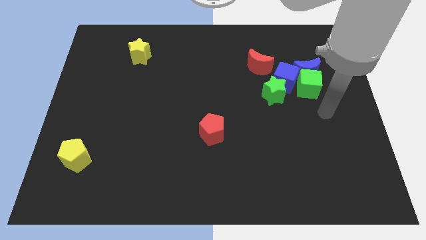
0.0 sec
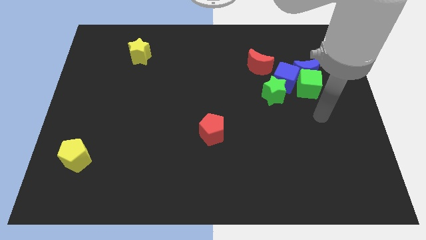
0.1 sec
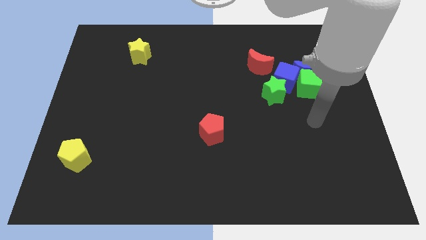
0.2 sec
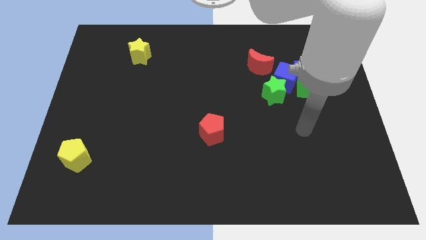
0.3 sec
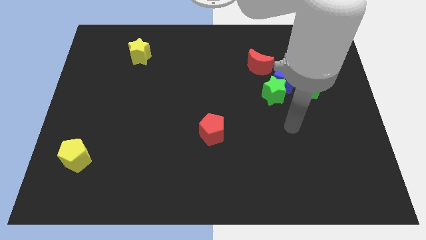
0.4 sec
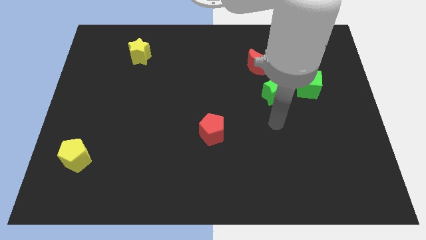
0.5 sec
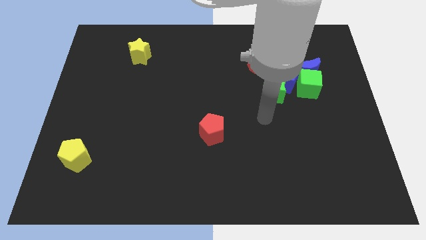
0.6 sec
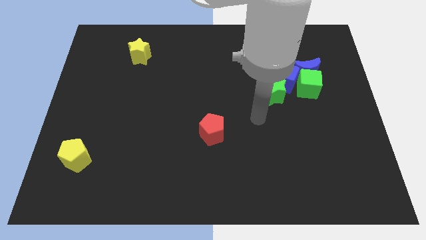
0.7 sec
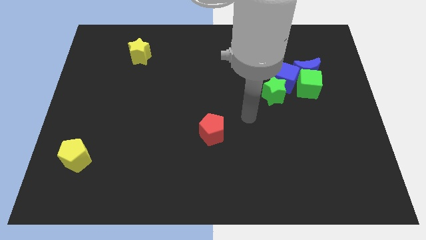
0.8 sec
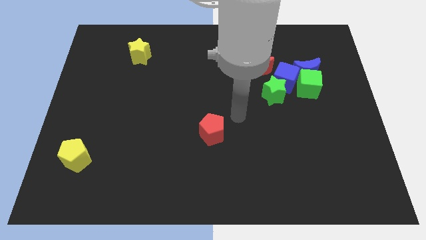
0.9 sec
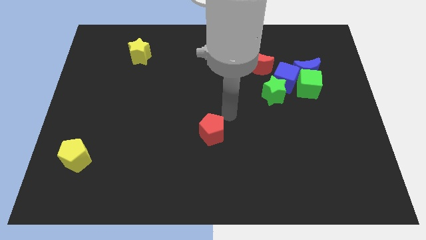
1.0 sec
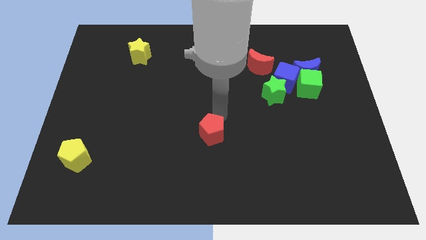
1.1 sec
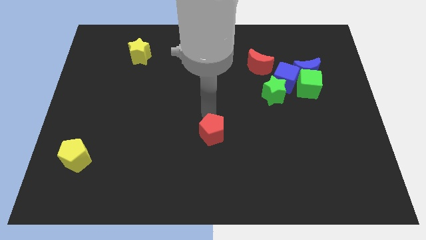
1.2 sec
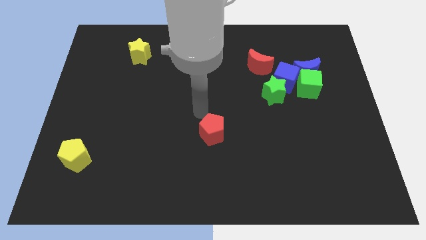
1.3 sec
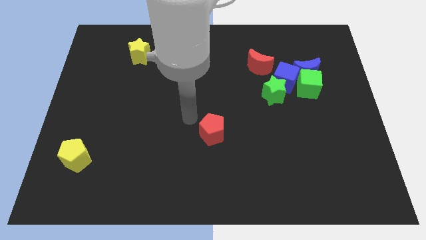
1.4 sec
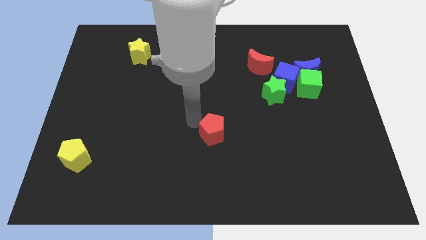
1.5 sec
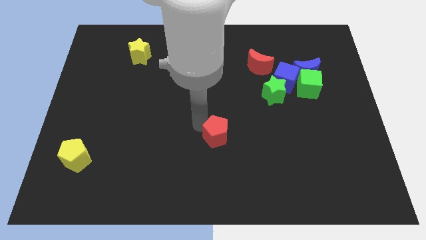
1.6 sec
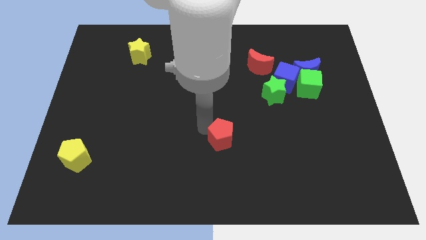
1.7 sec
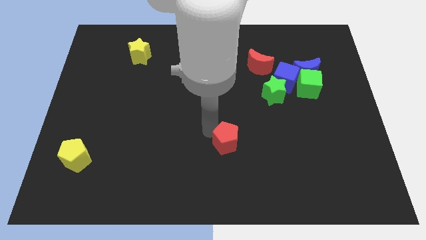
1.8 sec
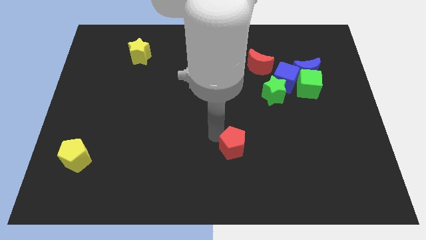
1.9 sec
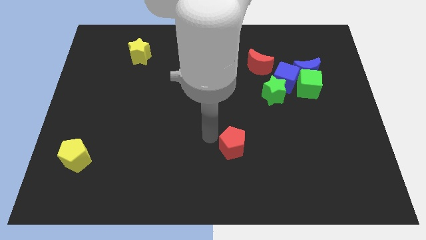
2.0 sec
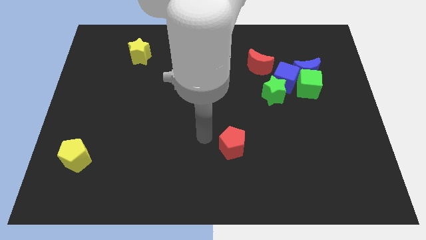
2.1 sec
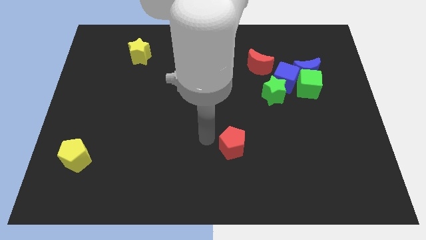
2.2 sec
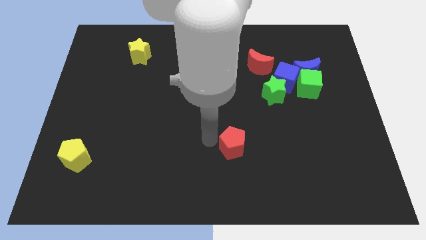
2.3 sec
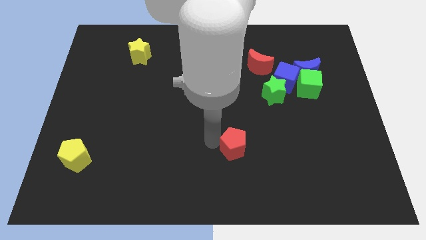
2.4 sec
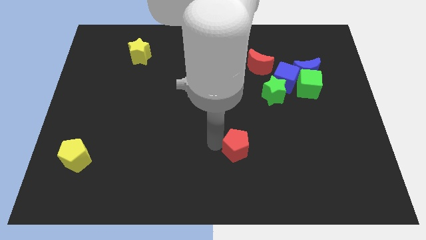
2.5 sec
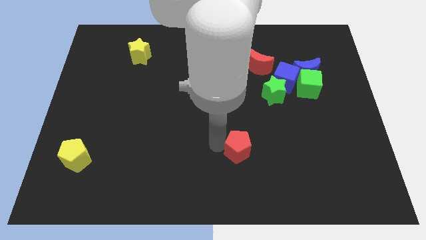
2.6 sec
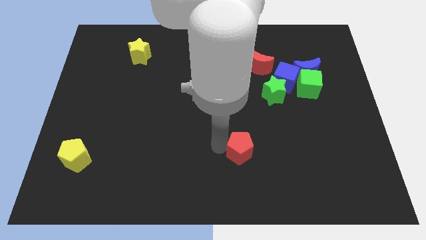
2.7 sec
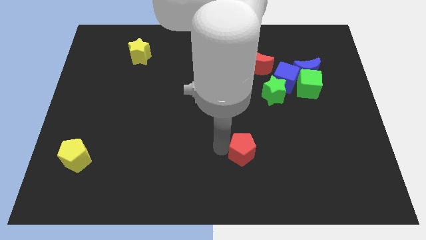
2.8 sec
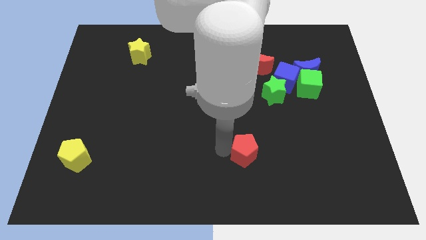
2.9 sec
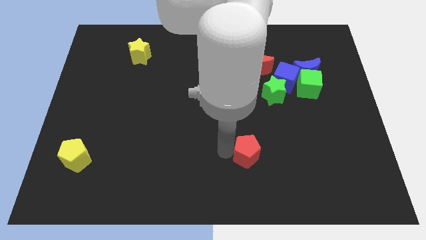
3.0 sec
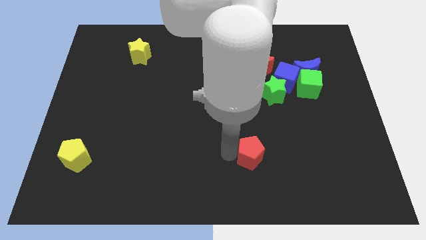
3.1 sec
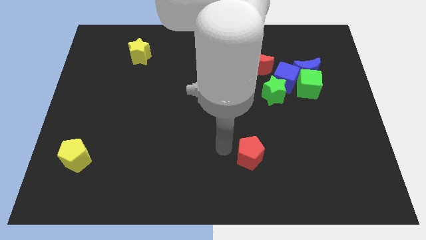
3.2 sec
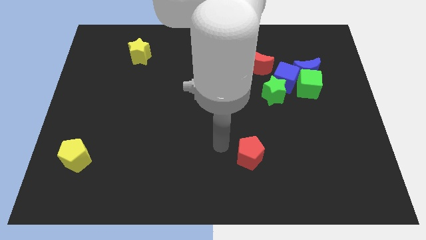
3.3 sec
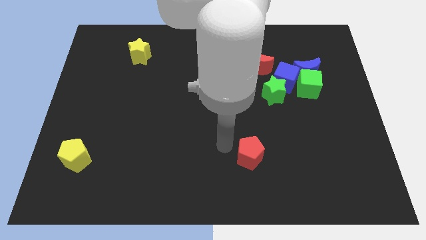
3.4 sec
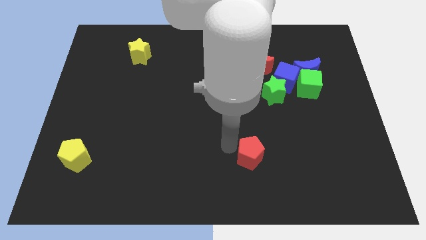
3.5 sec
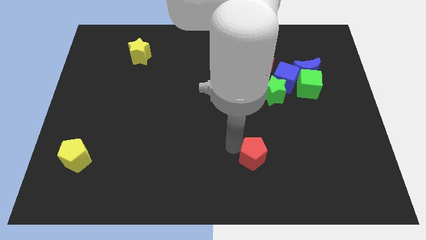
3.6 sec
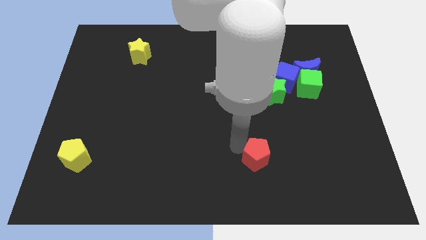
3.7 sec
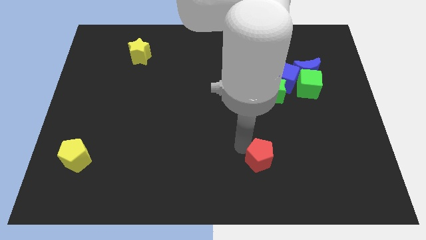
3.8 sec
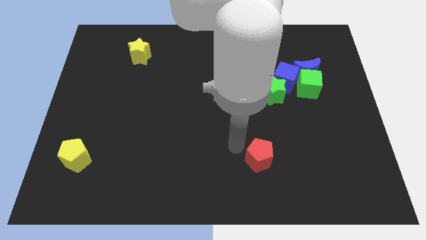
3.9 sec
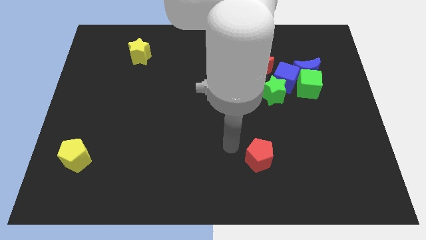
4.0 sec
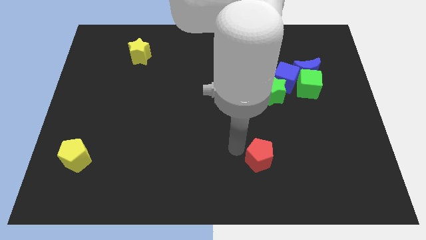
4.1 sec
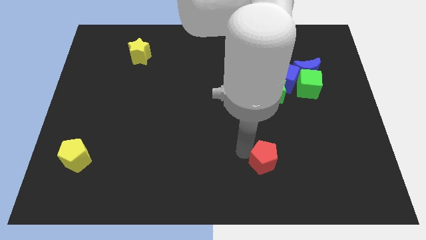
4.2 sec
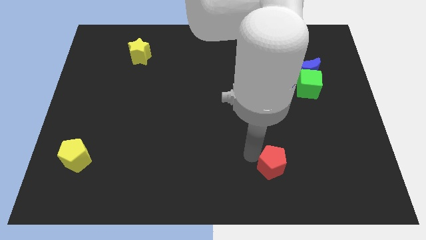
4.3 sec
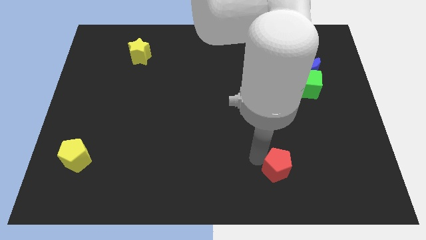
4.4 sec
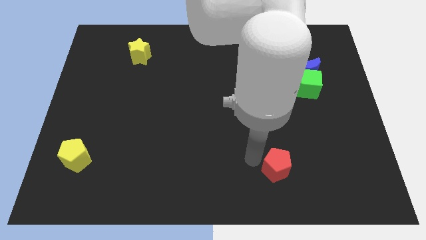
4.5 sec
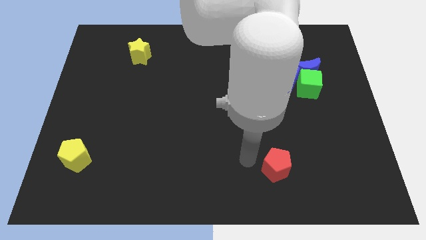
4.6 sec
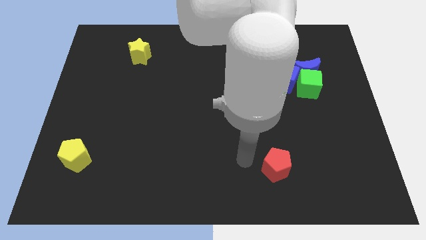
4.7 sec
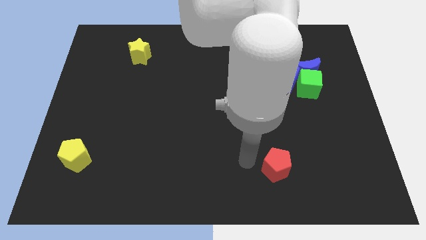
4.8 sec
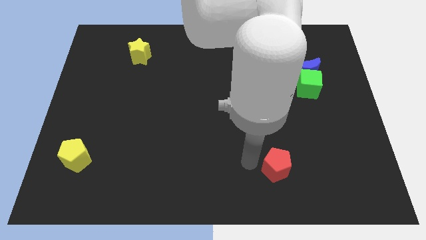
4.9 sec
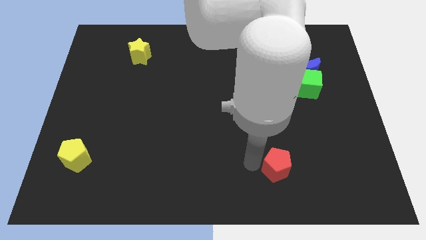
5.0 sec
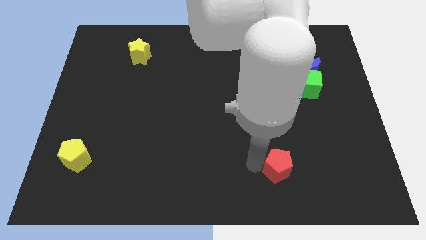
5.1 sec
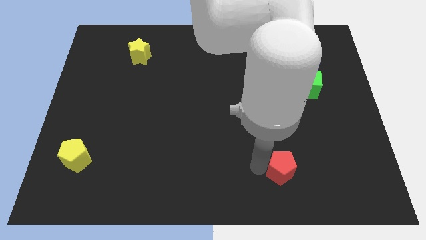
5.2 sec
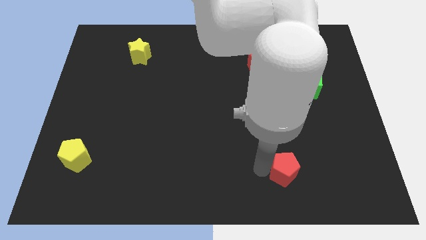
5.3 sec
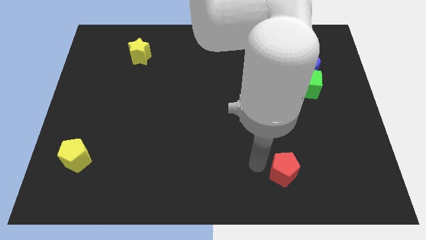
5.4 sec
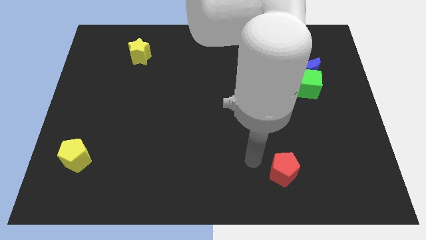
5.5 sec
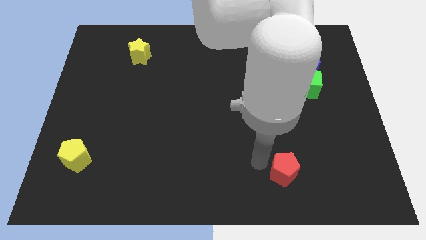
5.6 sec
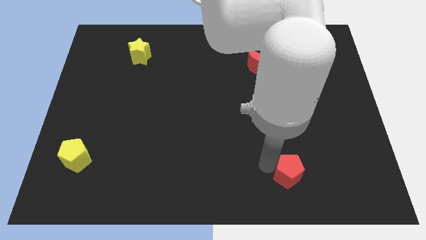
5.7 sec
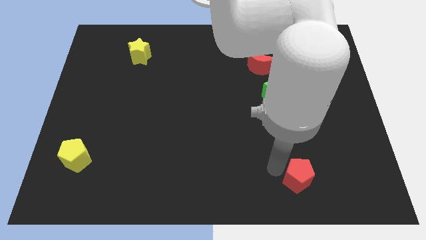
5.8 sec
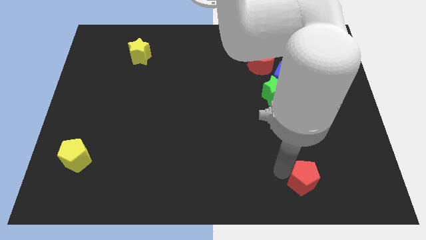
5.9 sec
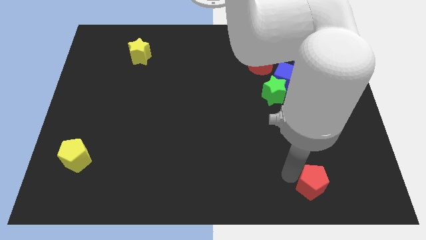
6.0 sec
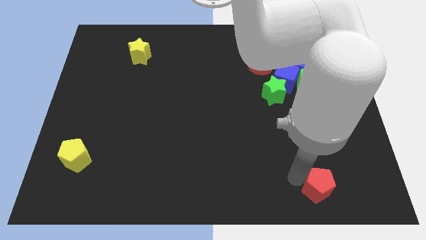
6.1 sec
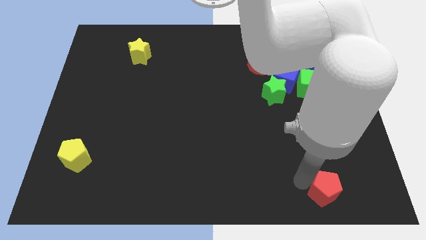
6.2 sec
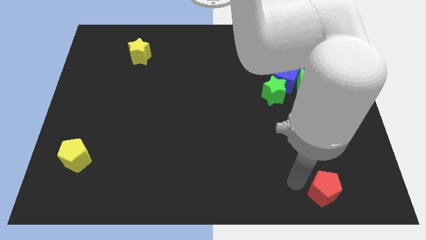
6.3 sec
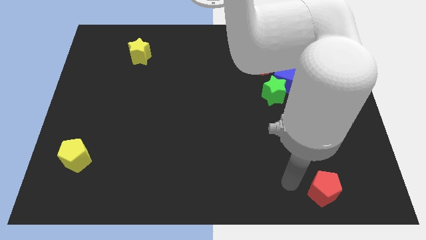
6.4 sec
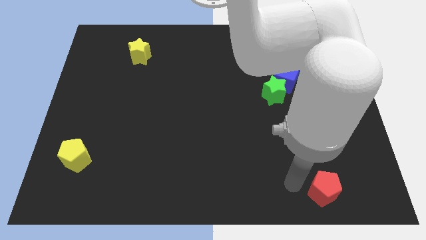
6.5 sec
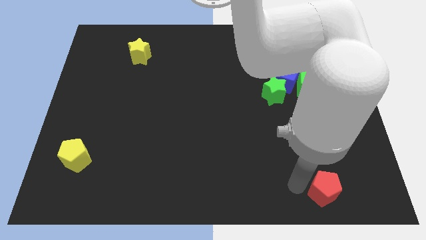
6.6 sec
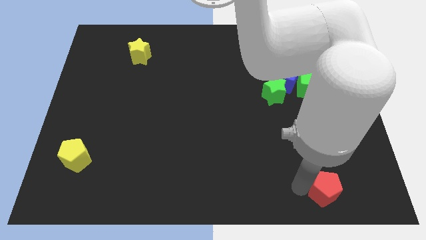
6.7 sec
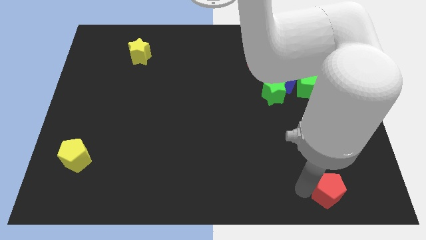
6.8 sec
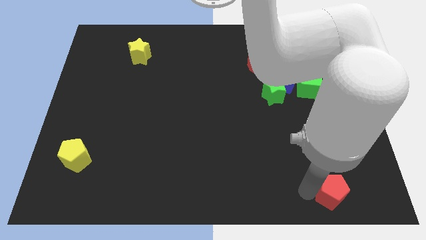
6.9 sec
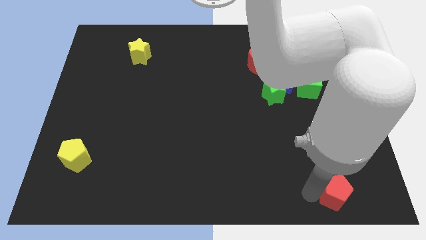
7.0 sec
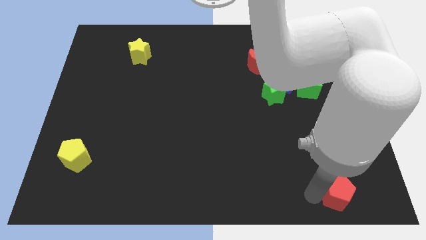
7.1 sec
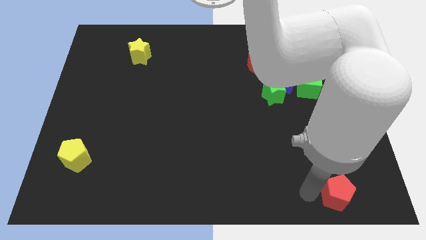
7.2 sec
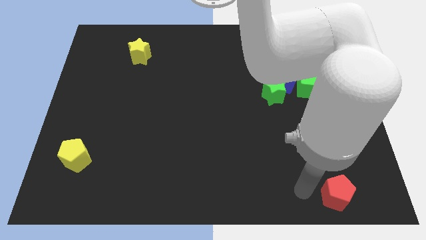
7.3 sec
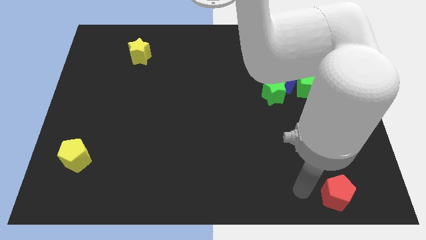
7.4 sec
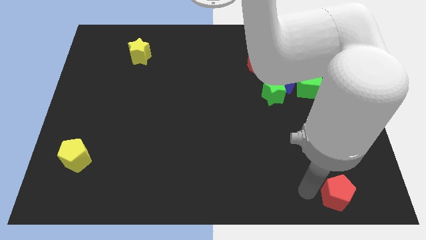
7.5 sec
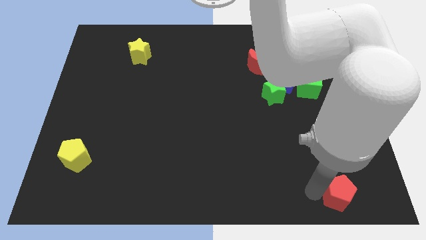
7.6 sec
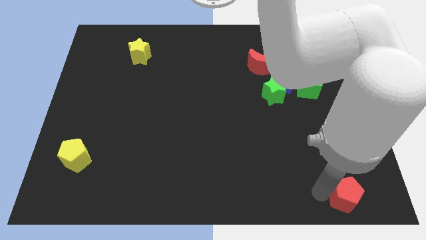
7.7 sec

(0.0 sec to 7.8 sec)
slide the red pentagon to the bottom right

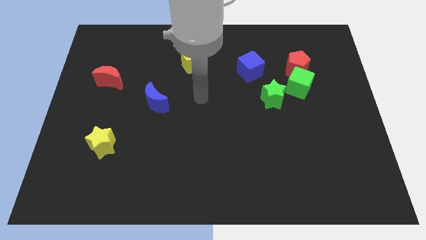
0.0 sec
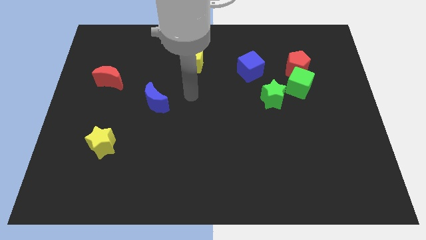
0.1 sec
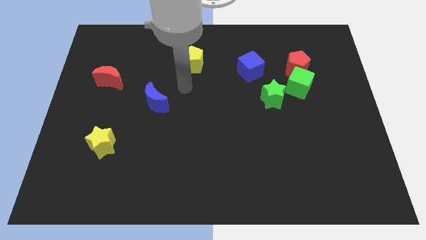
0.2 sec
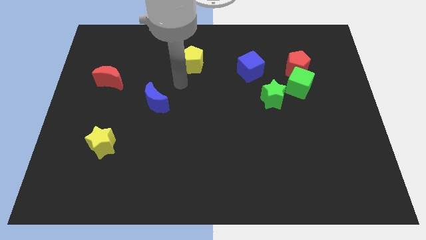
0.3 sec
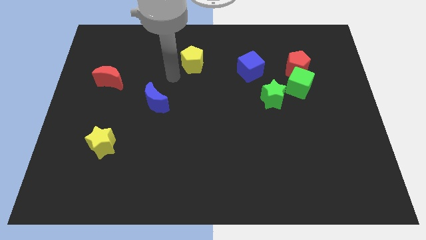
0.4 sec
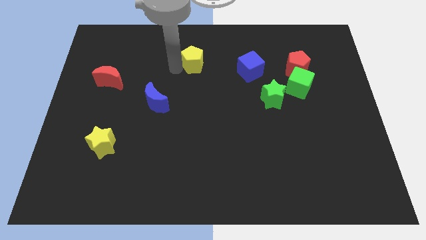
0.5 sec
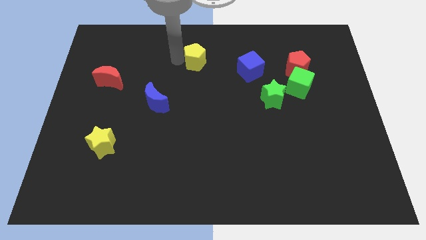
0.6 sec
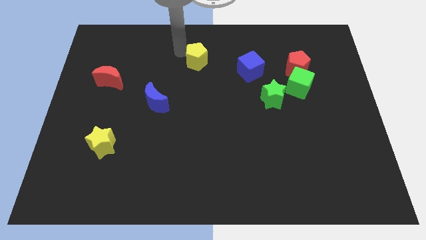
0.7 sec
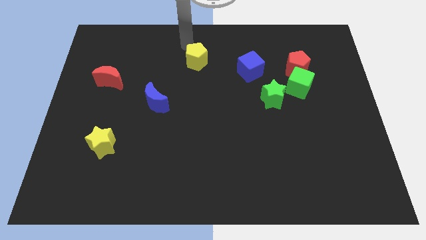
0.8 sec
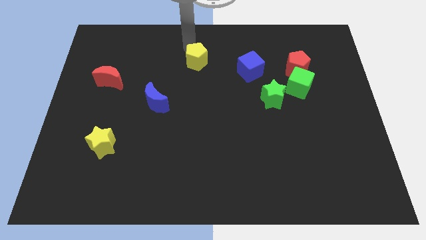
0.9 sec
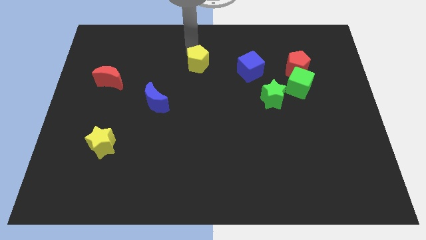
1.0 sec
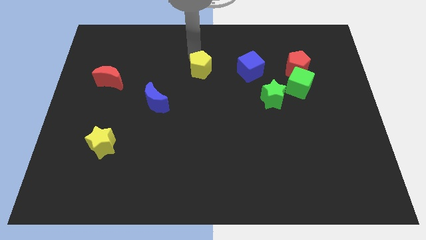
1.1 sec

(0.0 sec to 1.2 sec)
slide the yellow pentagon to the center of the board
